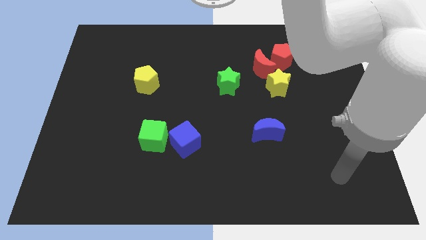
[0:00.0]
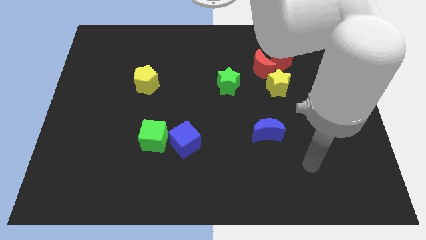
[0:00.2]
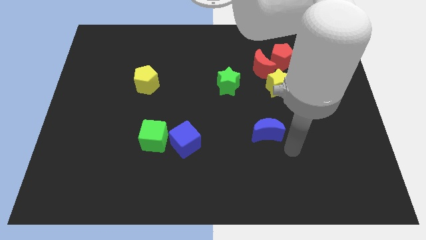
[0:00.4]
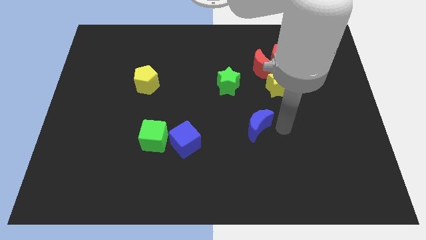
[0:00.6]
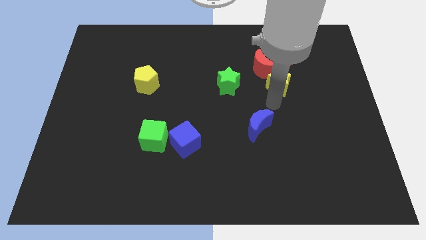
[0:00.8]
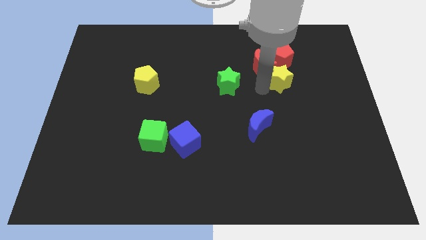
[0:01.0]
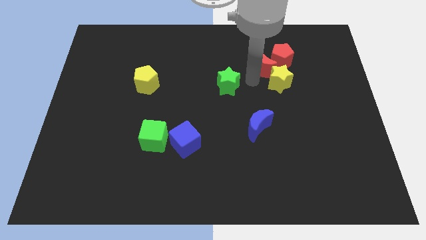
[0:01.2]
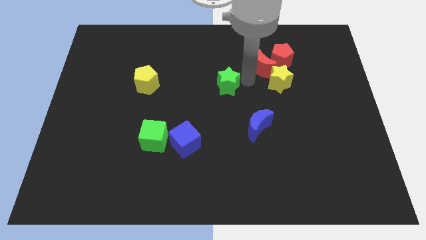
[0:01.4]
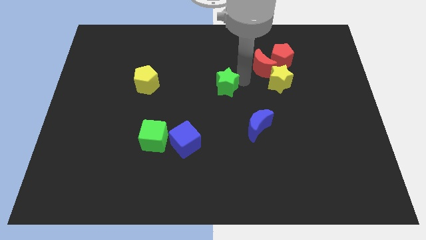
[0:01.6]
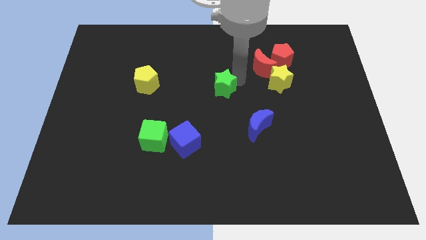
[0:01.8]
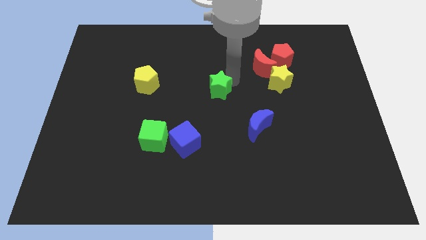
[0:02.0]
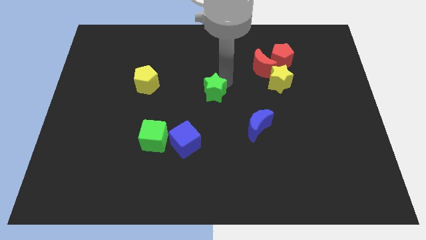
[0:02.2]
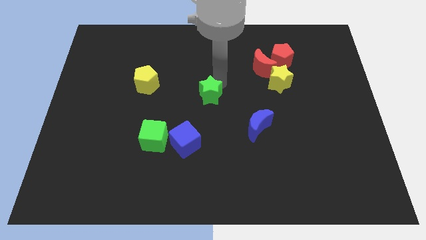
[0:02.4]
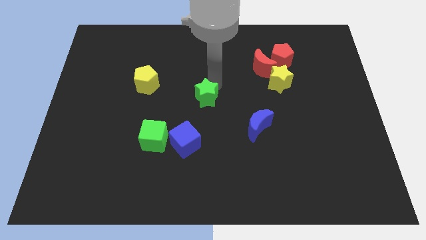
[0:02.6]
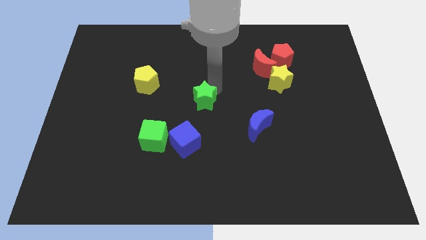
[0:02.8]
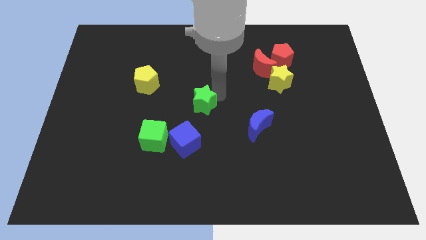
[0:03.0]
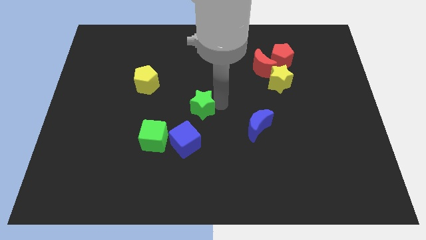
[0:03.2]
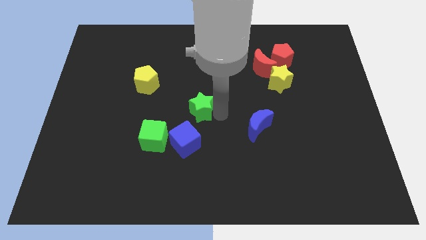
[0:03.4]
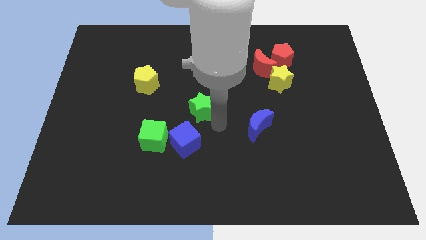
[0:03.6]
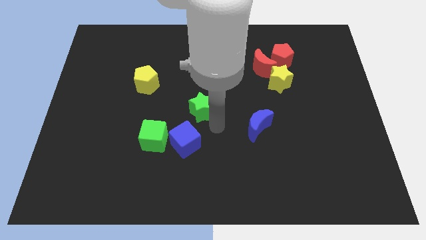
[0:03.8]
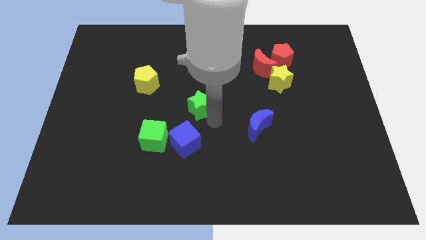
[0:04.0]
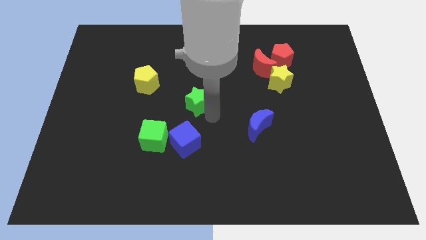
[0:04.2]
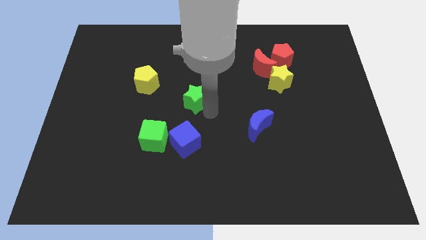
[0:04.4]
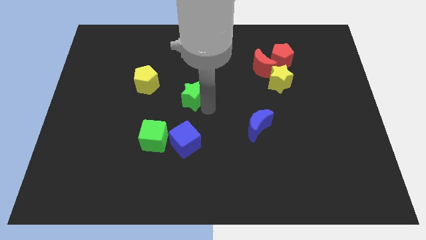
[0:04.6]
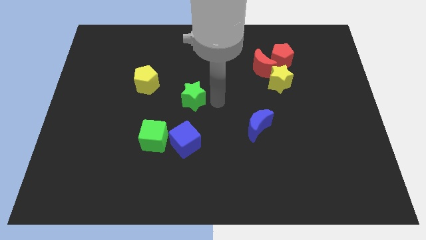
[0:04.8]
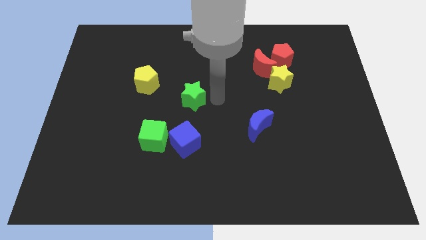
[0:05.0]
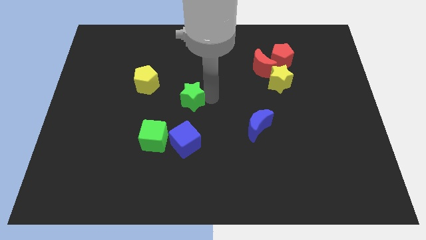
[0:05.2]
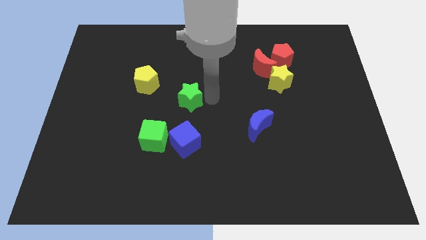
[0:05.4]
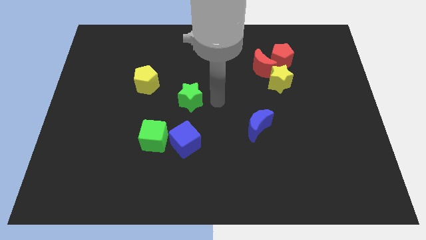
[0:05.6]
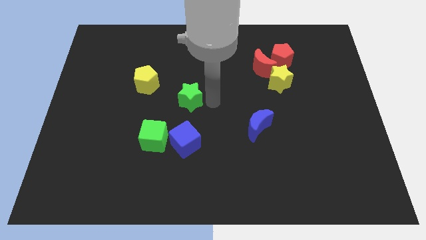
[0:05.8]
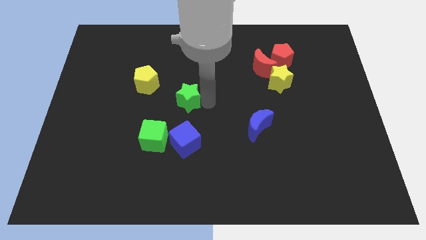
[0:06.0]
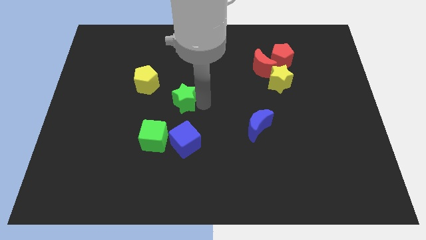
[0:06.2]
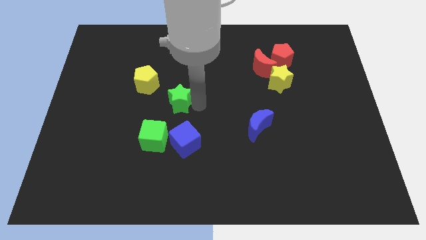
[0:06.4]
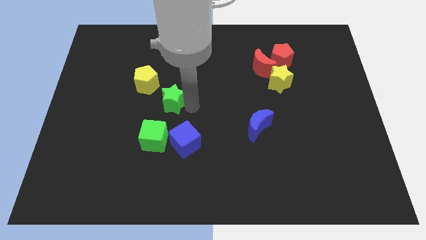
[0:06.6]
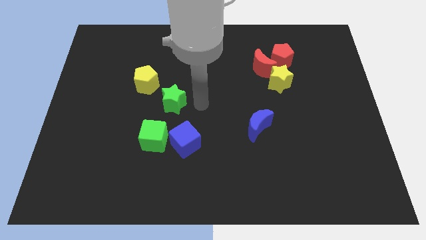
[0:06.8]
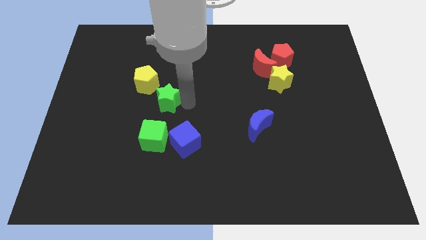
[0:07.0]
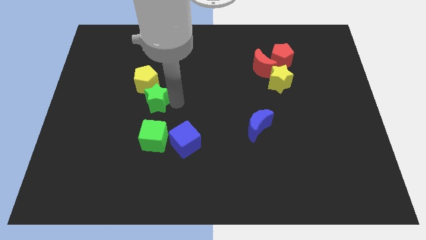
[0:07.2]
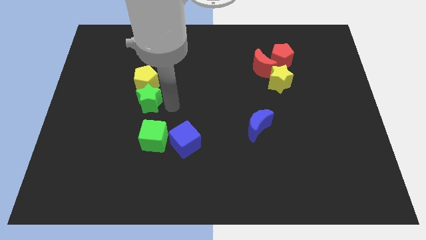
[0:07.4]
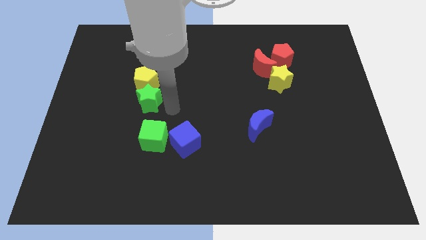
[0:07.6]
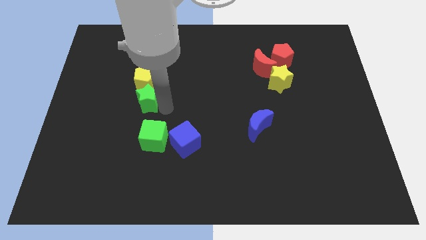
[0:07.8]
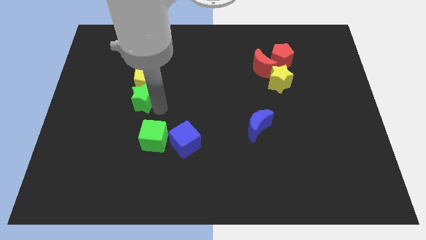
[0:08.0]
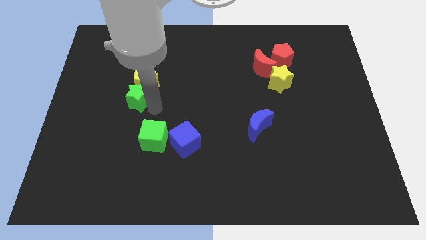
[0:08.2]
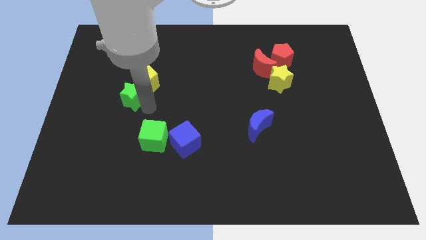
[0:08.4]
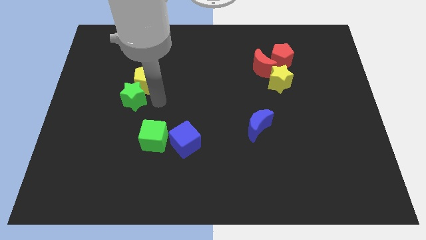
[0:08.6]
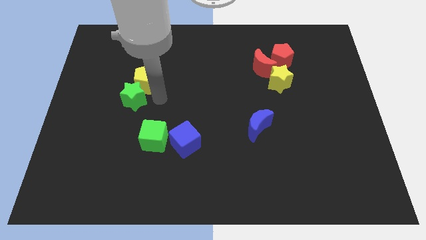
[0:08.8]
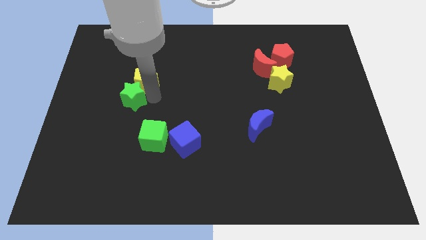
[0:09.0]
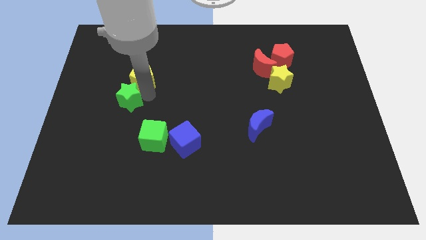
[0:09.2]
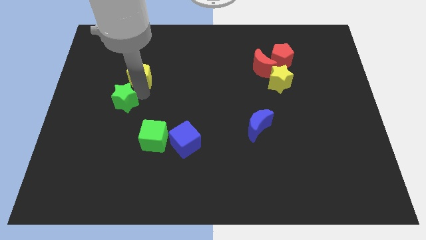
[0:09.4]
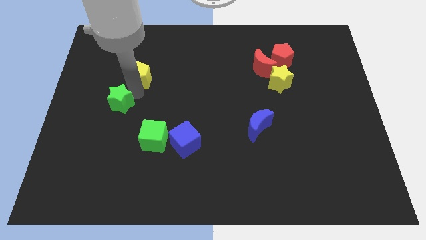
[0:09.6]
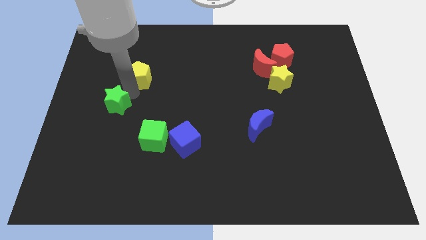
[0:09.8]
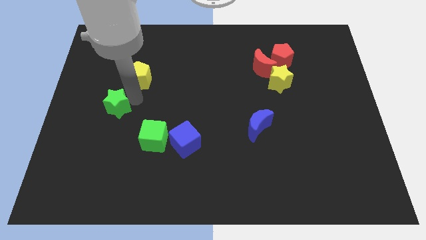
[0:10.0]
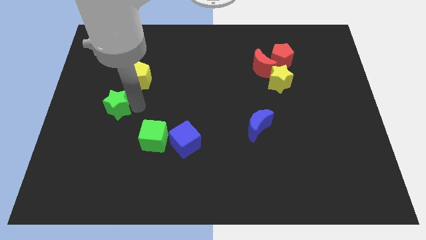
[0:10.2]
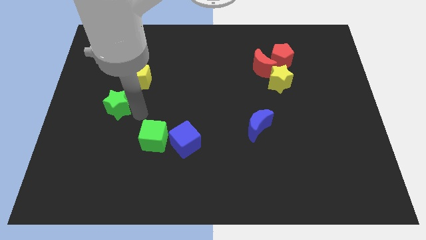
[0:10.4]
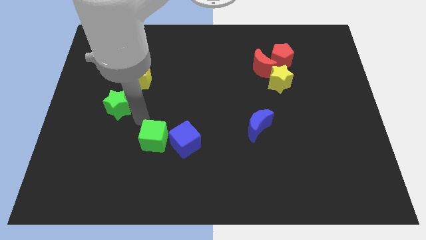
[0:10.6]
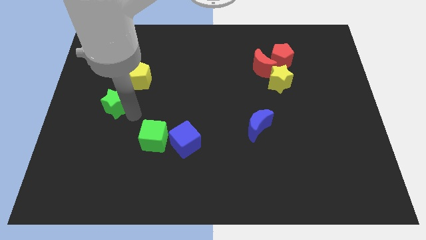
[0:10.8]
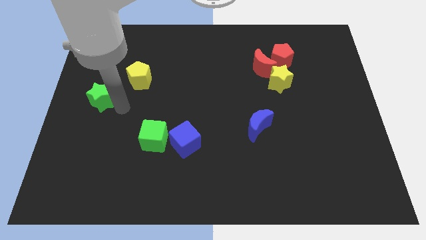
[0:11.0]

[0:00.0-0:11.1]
move the green star to the center left

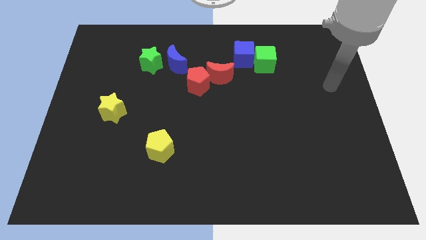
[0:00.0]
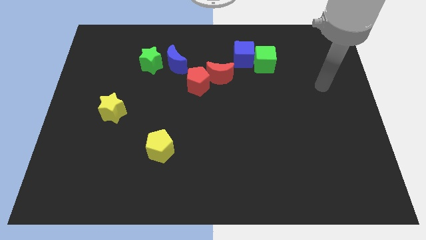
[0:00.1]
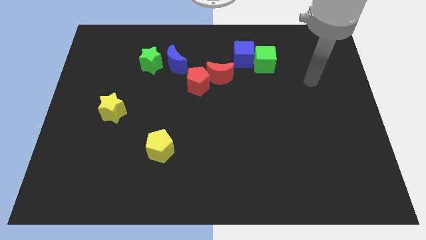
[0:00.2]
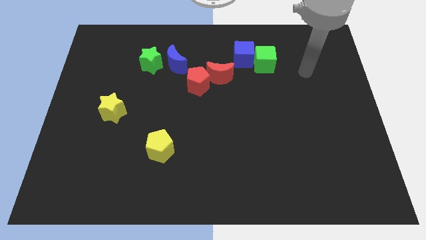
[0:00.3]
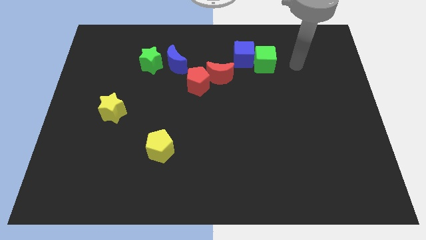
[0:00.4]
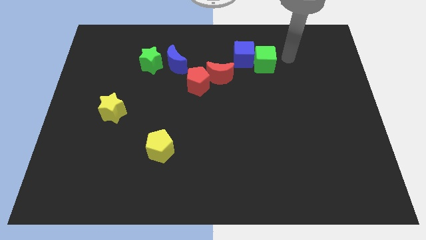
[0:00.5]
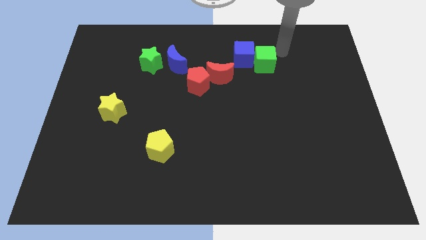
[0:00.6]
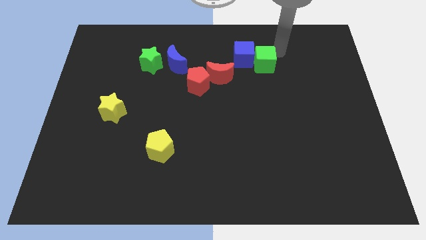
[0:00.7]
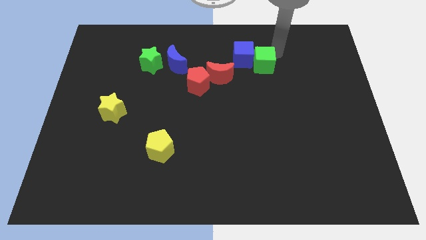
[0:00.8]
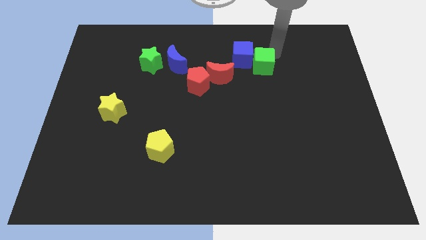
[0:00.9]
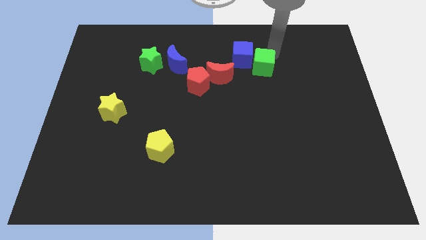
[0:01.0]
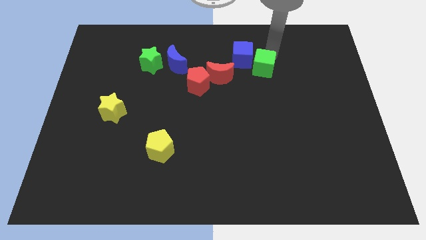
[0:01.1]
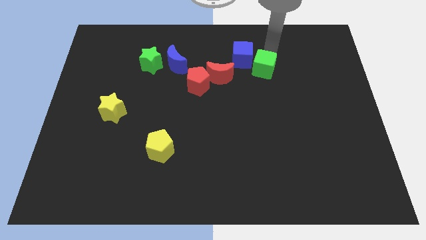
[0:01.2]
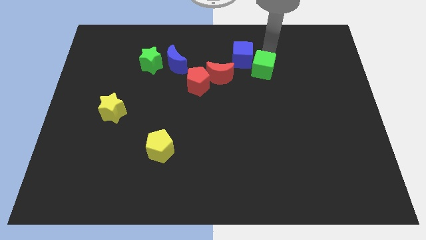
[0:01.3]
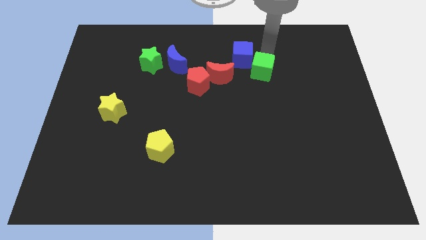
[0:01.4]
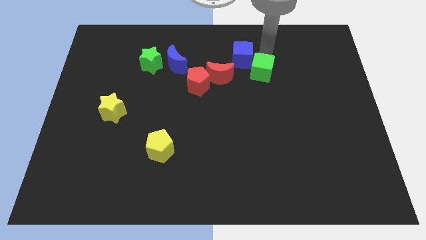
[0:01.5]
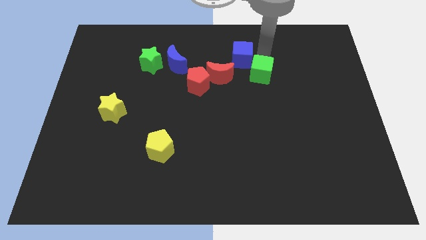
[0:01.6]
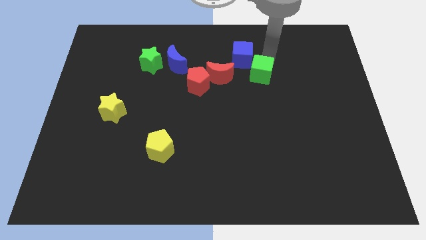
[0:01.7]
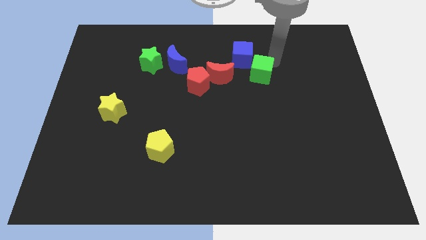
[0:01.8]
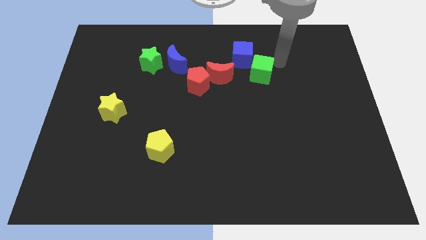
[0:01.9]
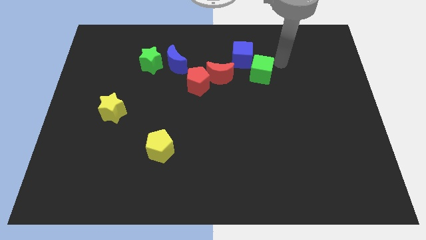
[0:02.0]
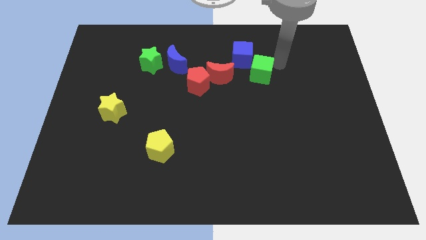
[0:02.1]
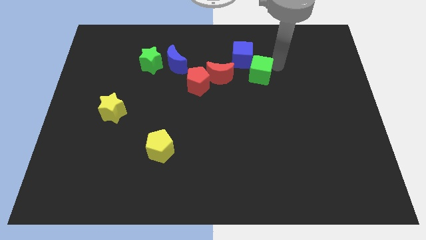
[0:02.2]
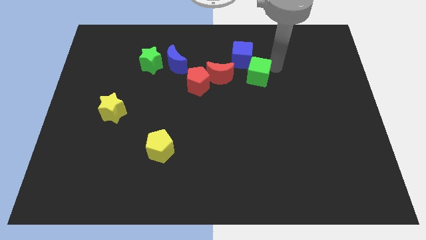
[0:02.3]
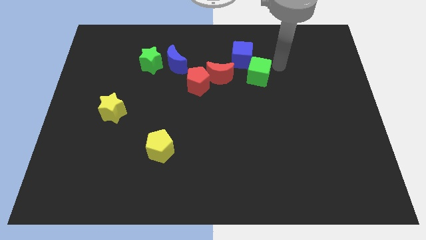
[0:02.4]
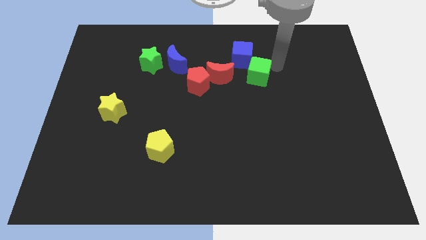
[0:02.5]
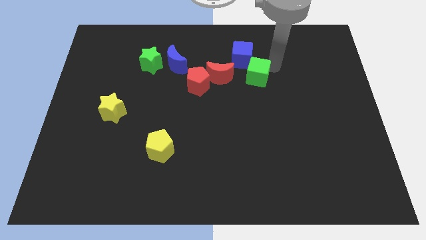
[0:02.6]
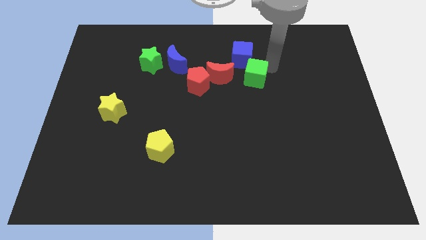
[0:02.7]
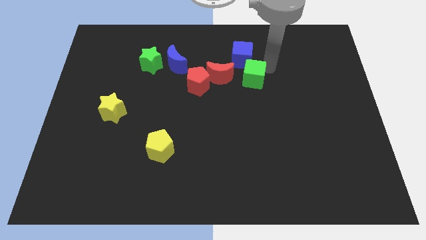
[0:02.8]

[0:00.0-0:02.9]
move the green cube to the center
